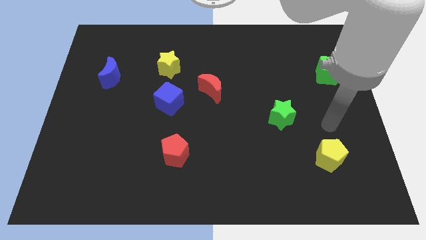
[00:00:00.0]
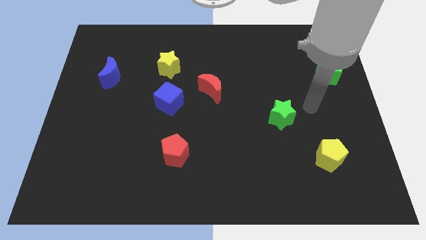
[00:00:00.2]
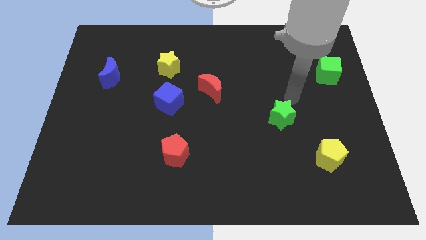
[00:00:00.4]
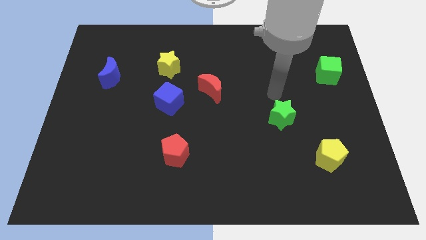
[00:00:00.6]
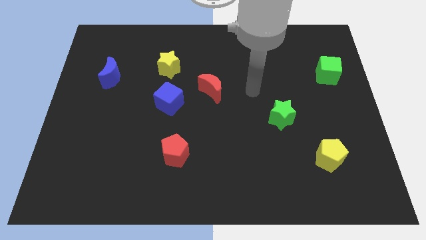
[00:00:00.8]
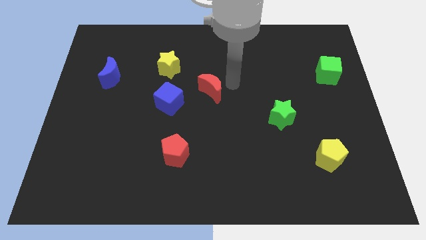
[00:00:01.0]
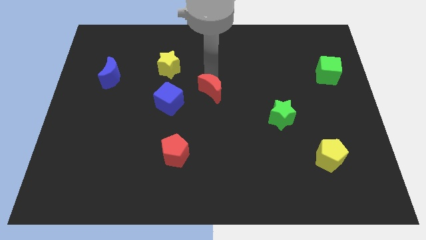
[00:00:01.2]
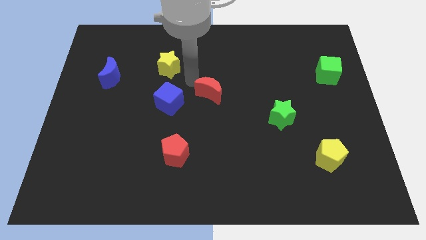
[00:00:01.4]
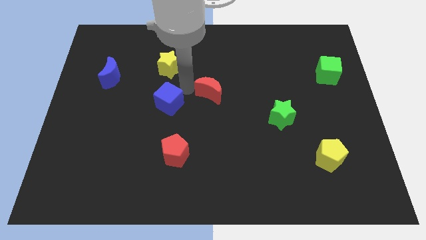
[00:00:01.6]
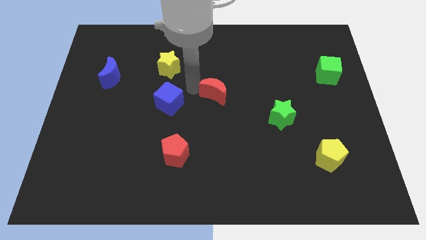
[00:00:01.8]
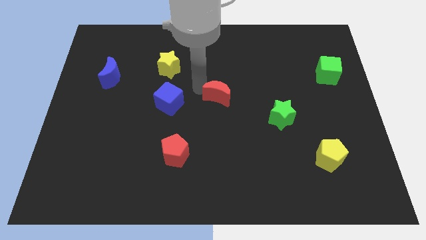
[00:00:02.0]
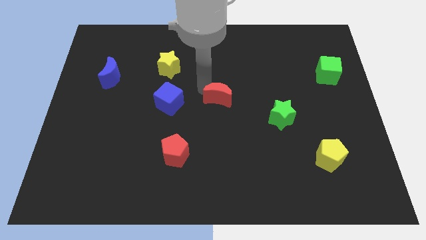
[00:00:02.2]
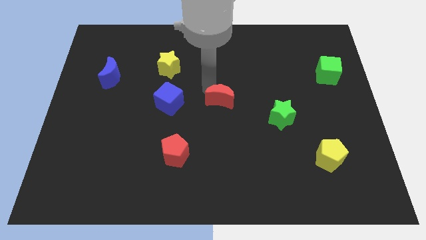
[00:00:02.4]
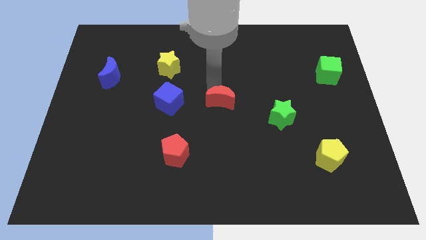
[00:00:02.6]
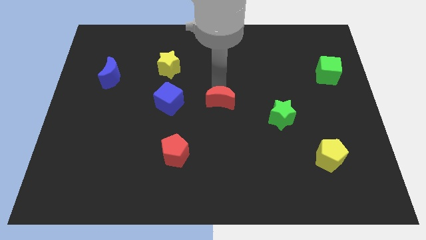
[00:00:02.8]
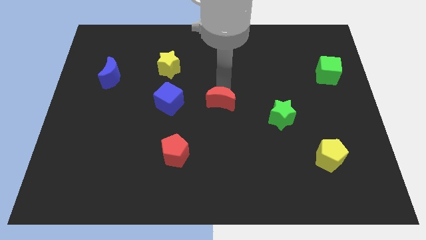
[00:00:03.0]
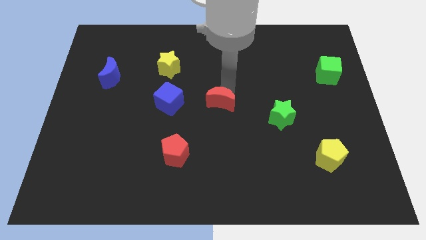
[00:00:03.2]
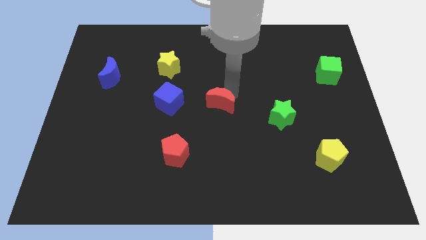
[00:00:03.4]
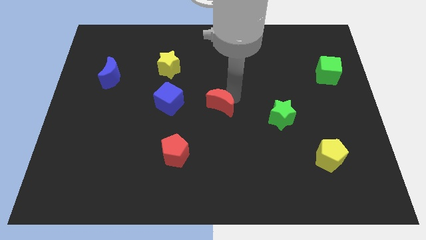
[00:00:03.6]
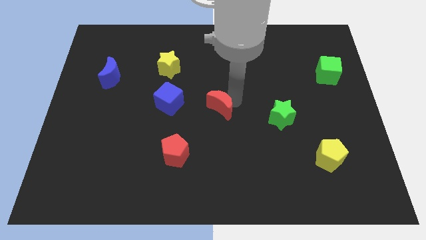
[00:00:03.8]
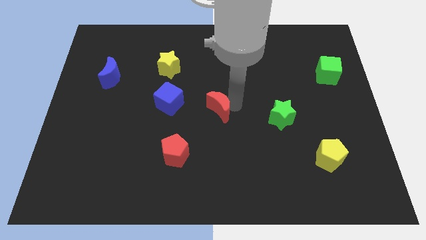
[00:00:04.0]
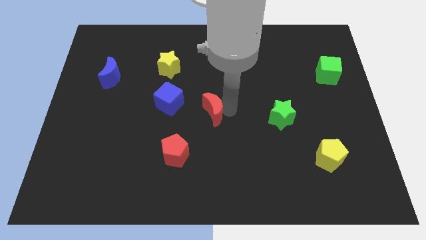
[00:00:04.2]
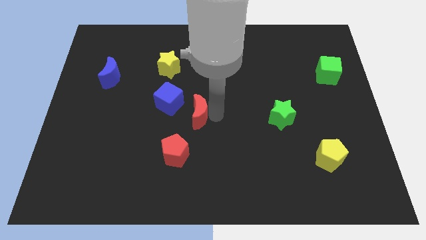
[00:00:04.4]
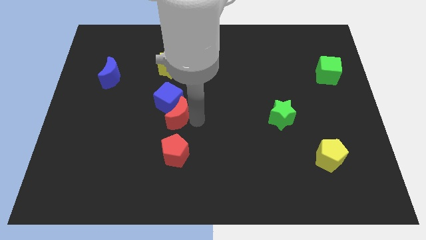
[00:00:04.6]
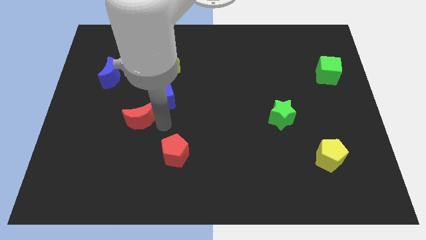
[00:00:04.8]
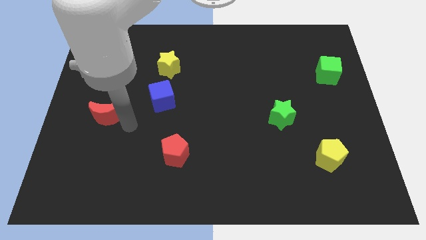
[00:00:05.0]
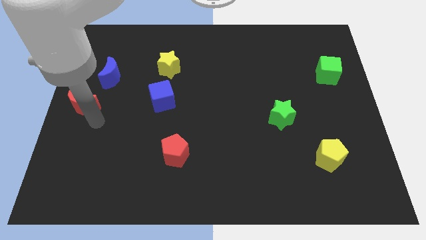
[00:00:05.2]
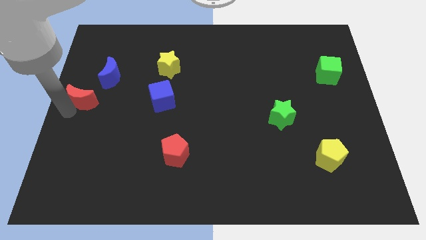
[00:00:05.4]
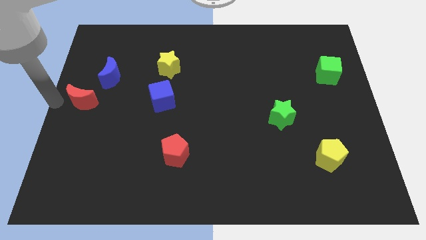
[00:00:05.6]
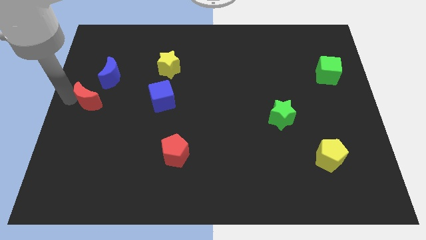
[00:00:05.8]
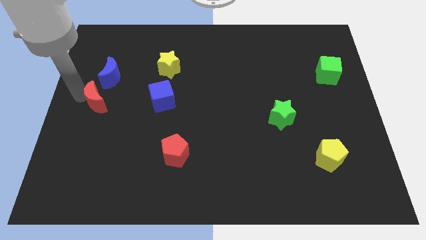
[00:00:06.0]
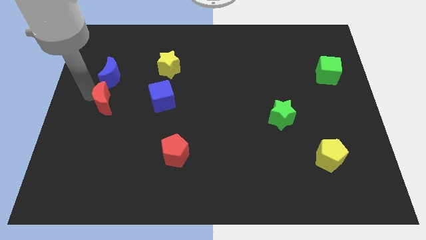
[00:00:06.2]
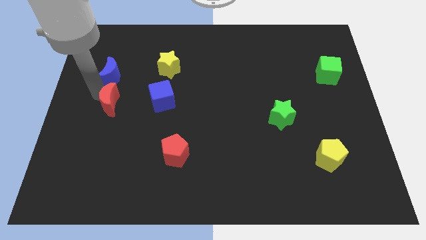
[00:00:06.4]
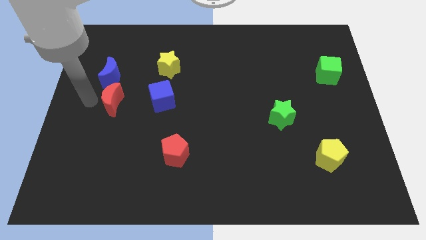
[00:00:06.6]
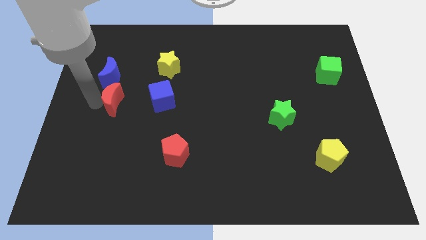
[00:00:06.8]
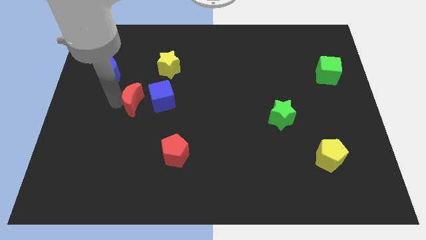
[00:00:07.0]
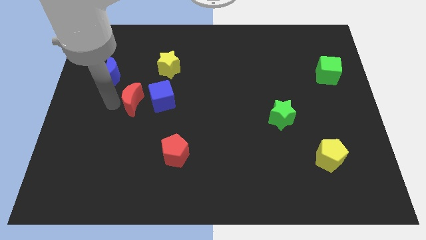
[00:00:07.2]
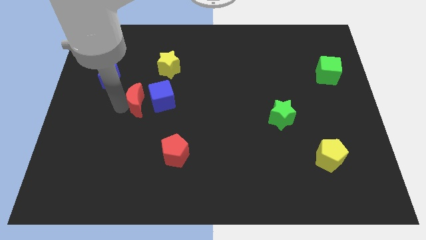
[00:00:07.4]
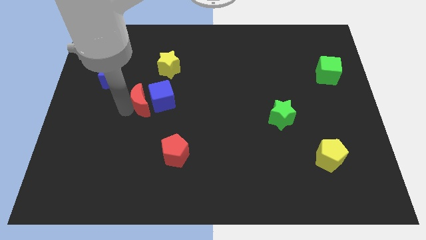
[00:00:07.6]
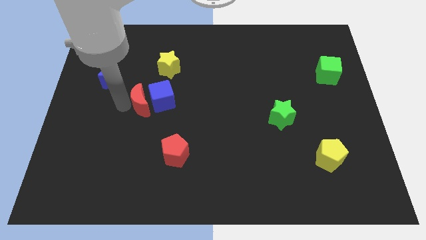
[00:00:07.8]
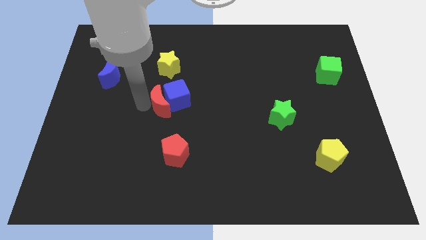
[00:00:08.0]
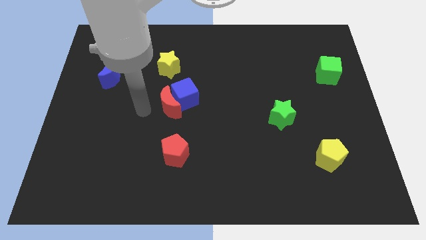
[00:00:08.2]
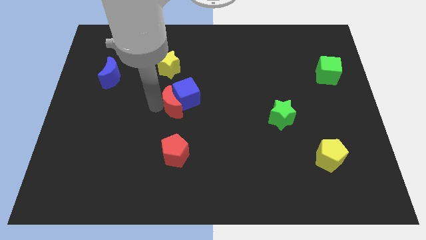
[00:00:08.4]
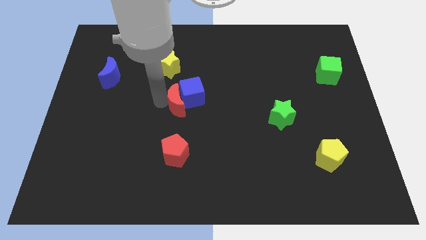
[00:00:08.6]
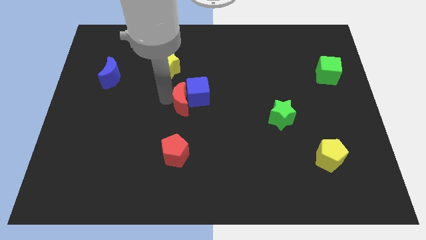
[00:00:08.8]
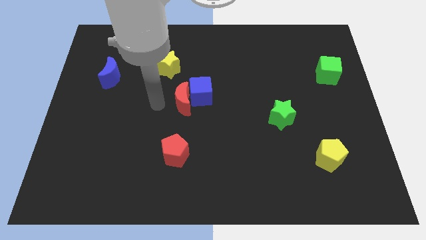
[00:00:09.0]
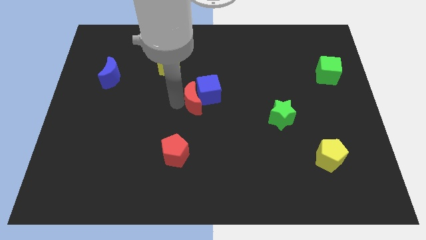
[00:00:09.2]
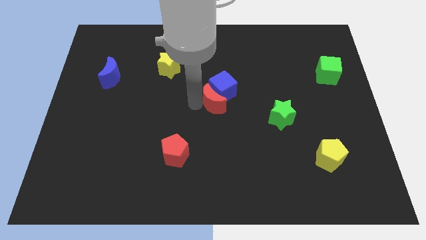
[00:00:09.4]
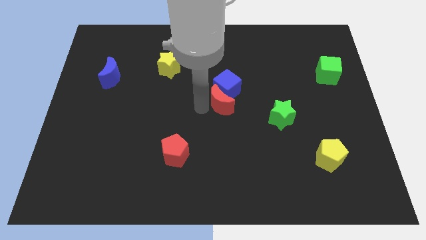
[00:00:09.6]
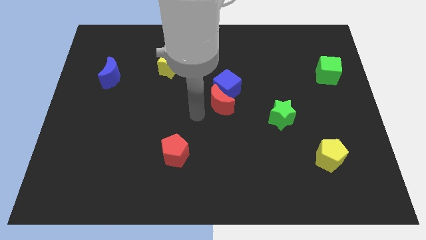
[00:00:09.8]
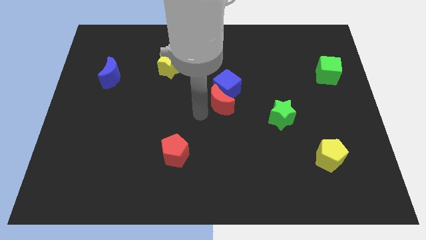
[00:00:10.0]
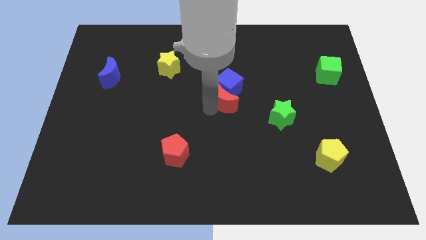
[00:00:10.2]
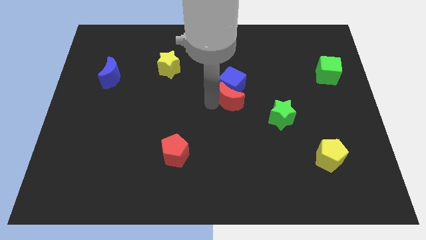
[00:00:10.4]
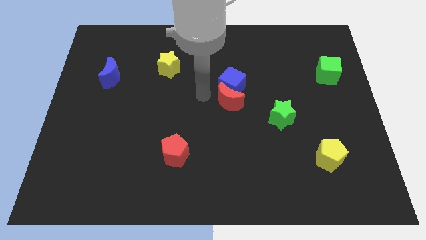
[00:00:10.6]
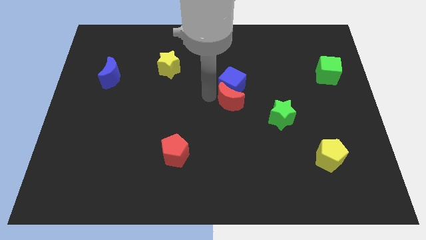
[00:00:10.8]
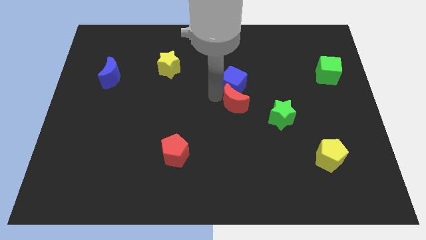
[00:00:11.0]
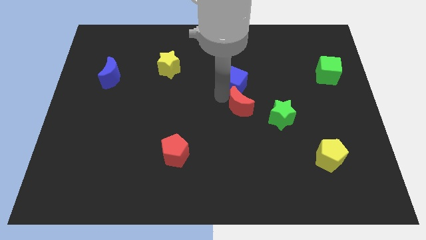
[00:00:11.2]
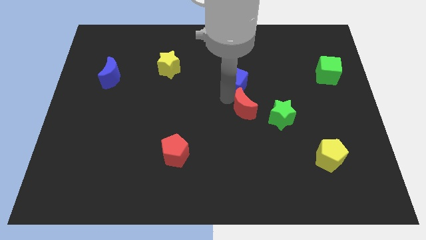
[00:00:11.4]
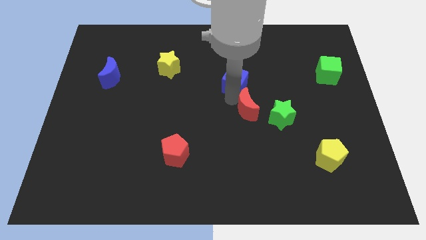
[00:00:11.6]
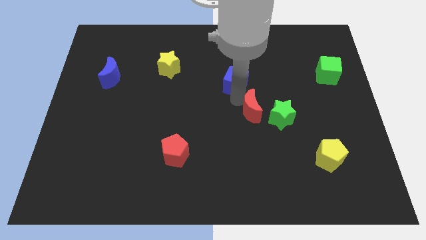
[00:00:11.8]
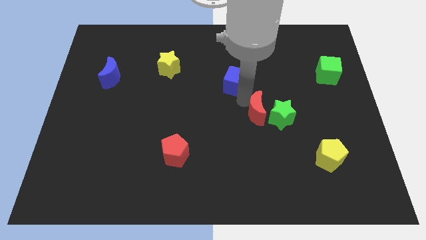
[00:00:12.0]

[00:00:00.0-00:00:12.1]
push the red moon close to the green star

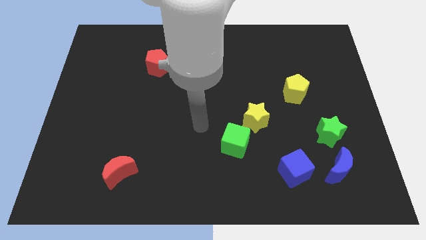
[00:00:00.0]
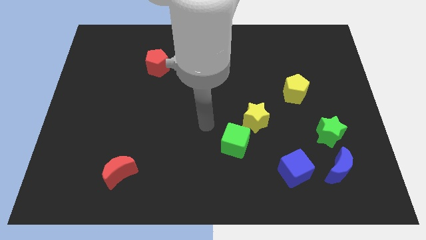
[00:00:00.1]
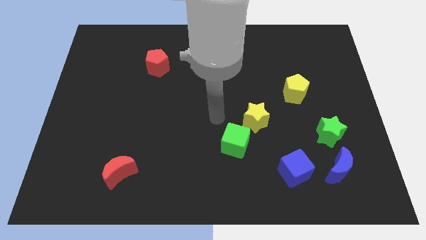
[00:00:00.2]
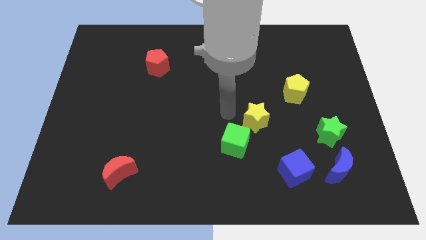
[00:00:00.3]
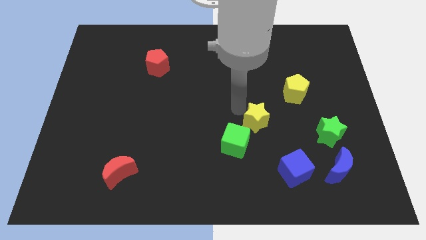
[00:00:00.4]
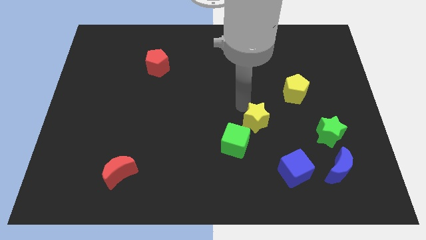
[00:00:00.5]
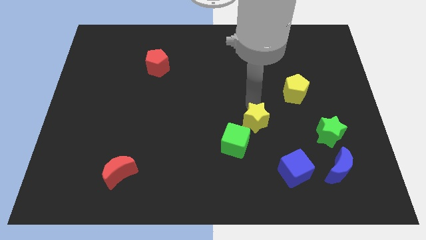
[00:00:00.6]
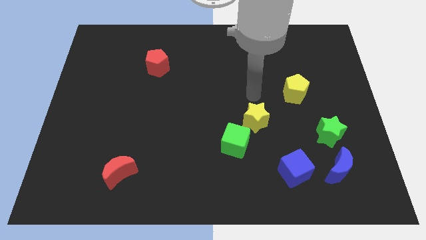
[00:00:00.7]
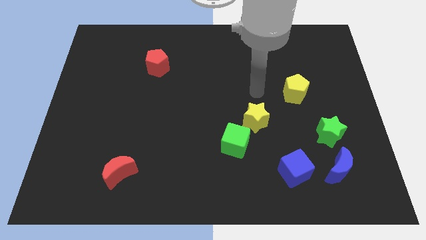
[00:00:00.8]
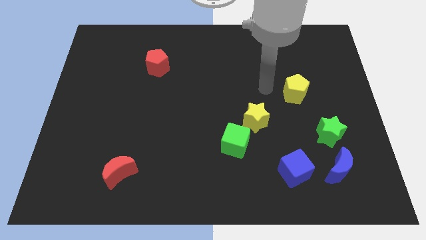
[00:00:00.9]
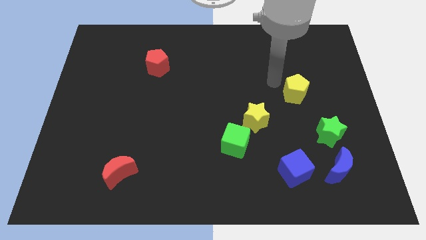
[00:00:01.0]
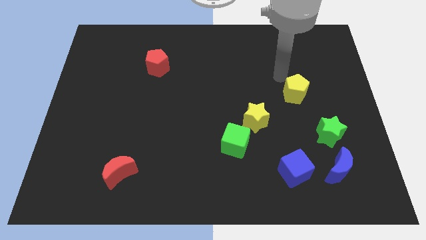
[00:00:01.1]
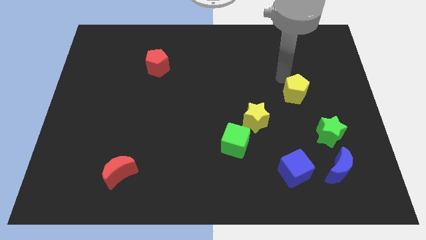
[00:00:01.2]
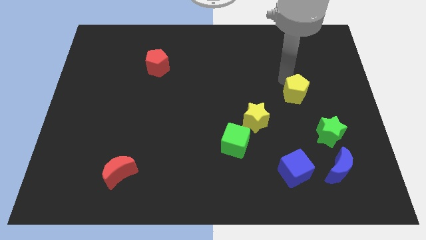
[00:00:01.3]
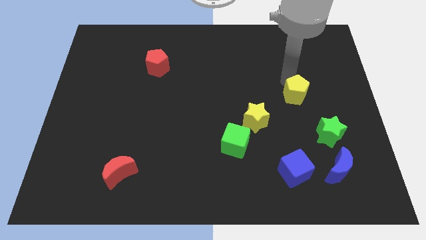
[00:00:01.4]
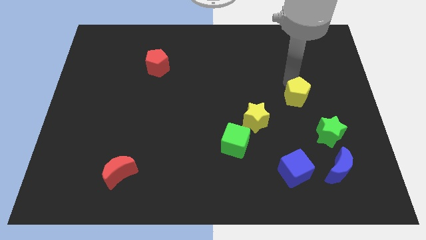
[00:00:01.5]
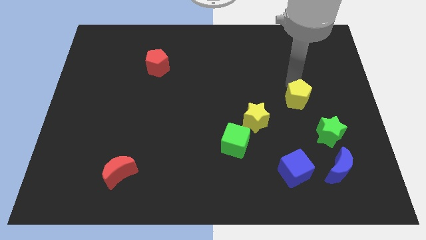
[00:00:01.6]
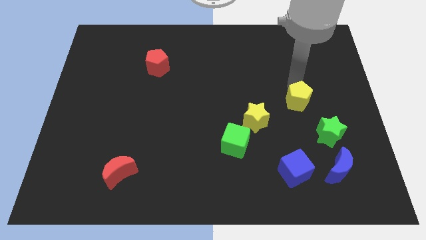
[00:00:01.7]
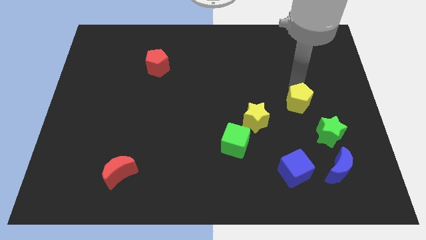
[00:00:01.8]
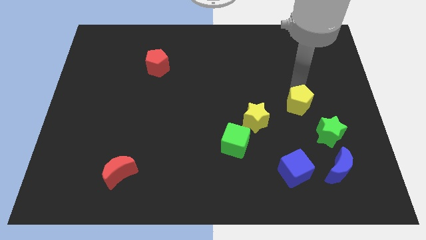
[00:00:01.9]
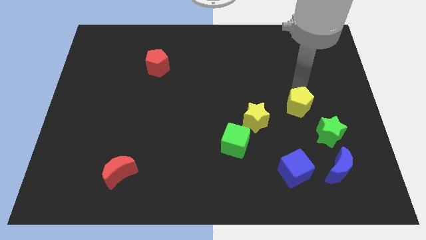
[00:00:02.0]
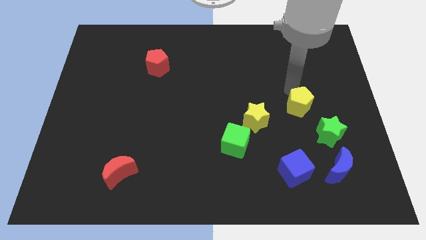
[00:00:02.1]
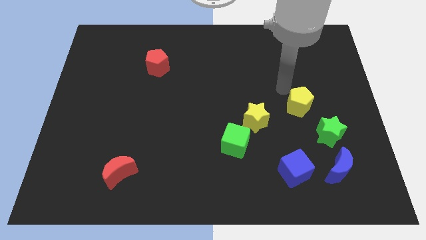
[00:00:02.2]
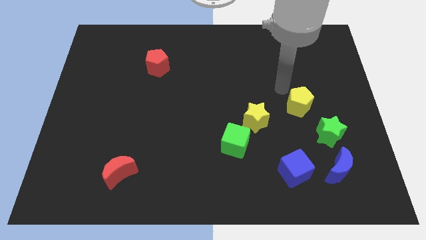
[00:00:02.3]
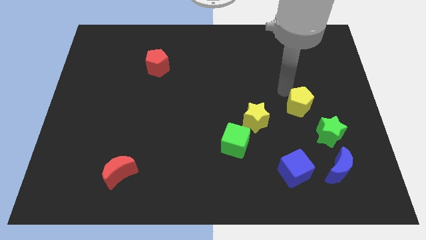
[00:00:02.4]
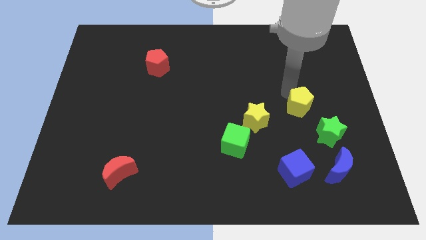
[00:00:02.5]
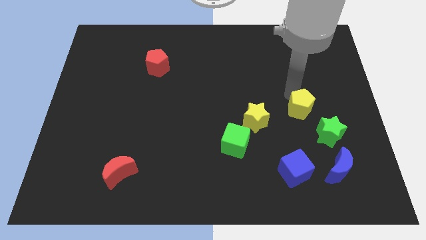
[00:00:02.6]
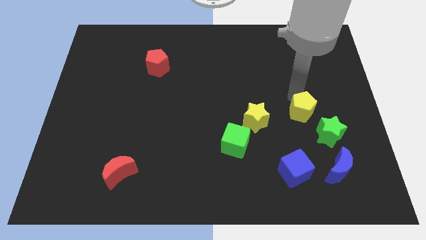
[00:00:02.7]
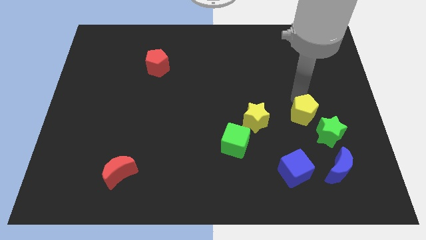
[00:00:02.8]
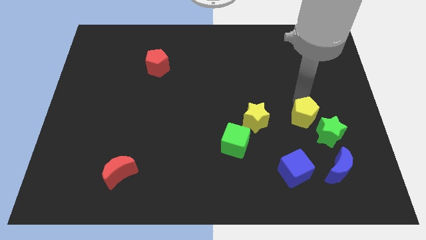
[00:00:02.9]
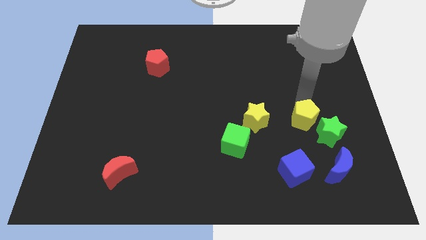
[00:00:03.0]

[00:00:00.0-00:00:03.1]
put the yellow pentagon towards the green star
